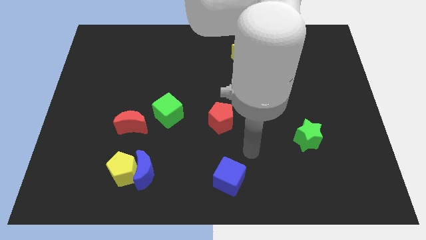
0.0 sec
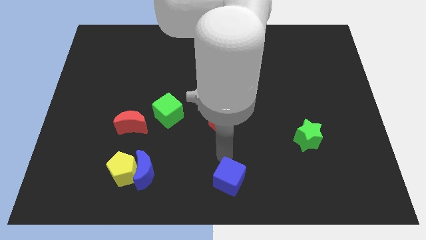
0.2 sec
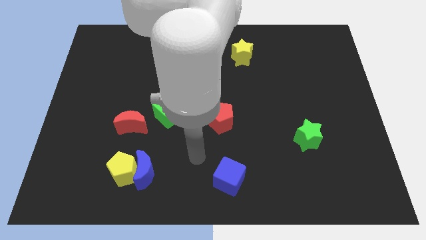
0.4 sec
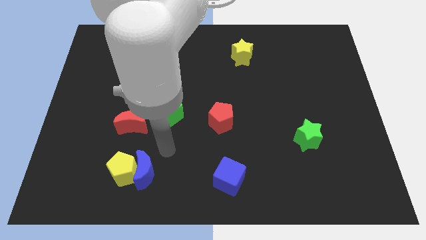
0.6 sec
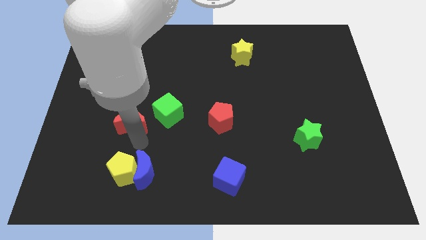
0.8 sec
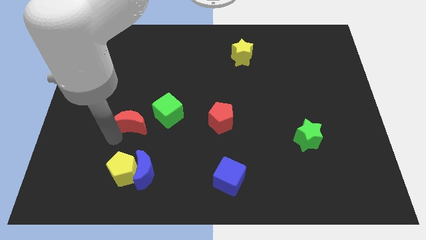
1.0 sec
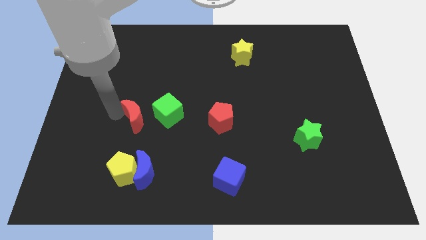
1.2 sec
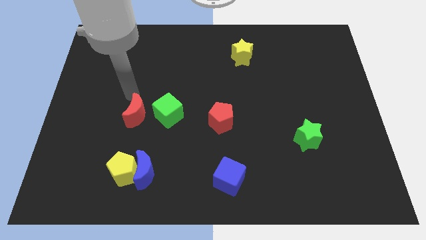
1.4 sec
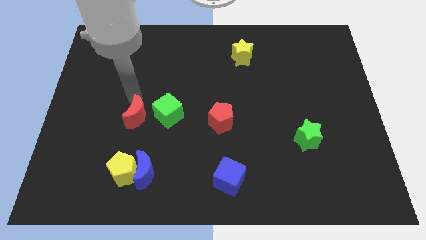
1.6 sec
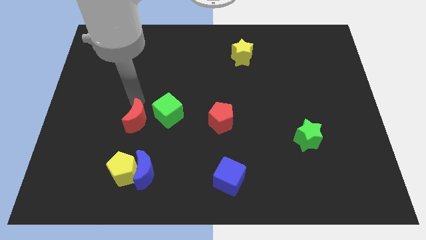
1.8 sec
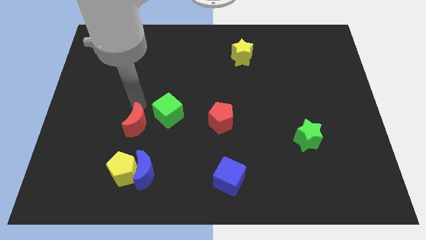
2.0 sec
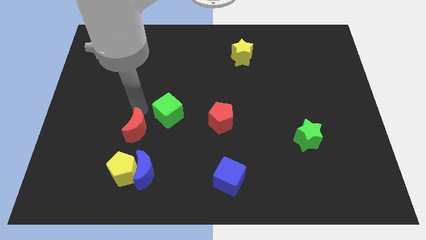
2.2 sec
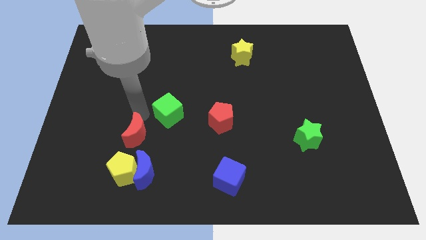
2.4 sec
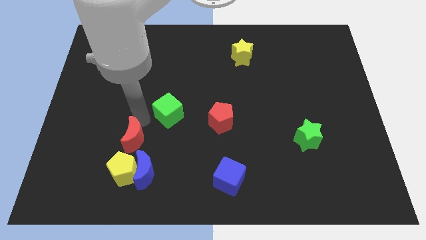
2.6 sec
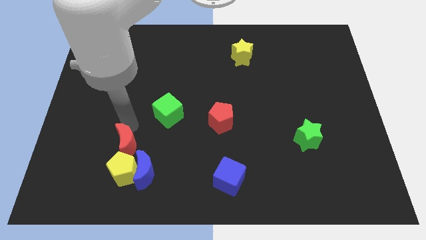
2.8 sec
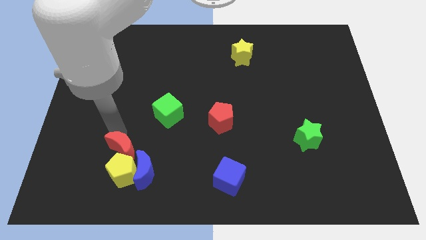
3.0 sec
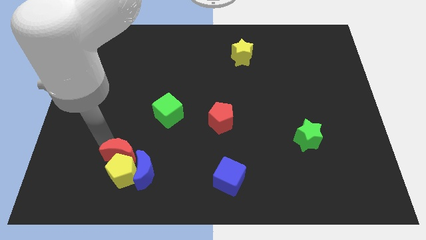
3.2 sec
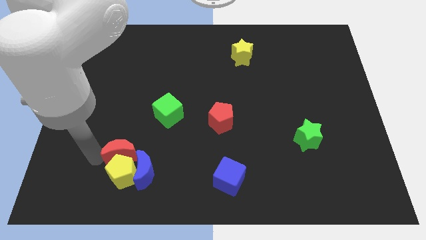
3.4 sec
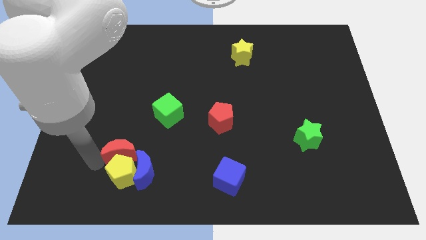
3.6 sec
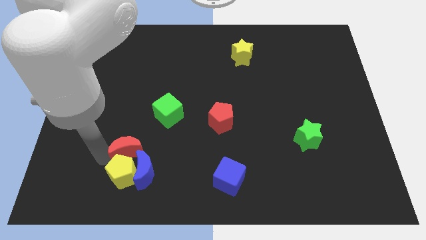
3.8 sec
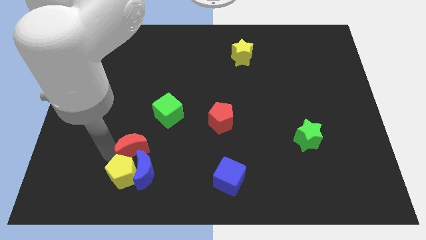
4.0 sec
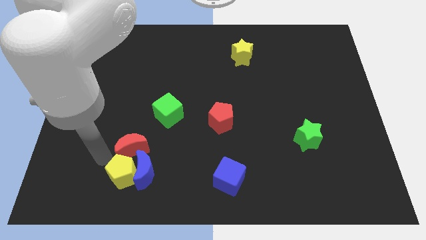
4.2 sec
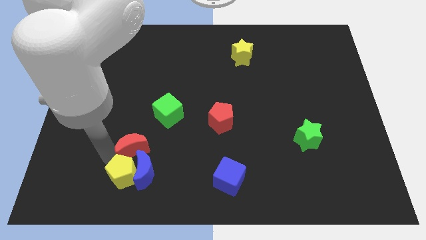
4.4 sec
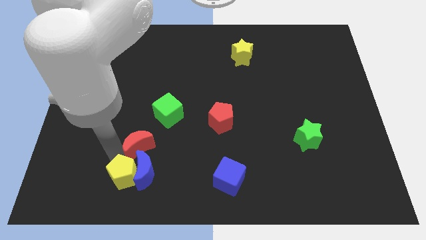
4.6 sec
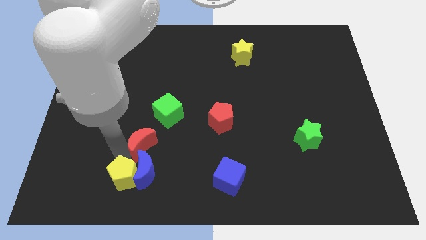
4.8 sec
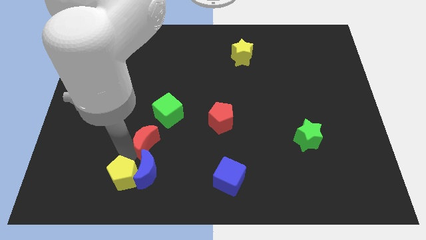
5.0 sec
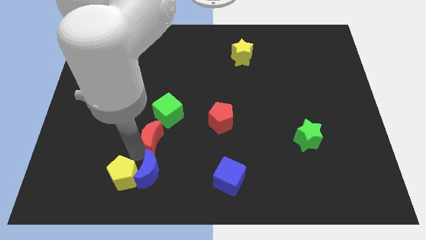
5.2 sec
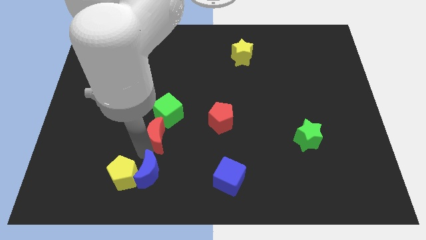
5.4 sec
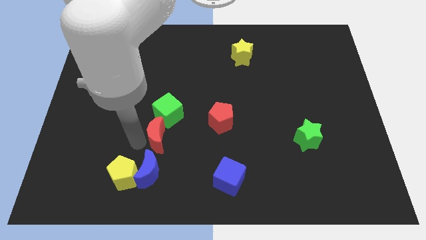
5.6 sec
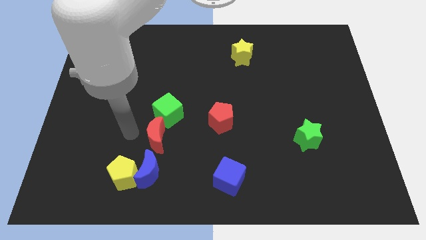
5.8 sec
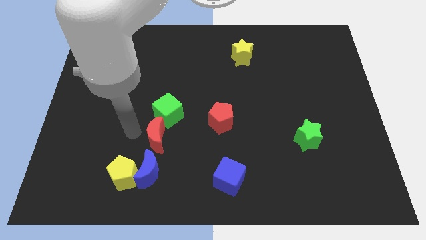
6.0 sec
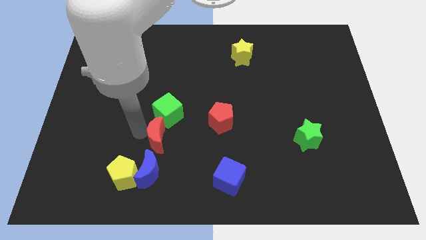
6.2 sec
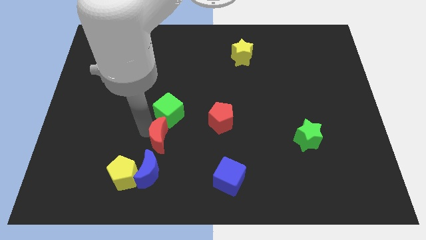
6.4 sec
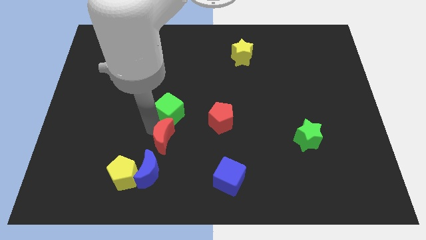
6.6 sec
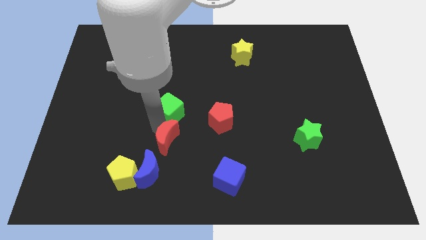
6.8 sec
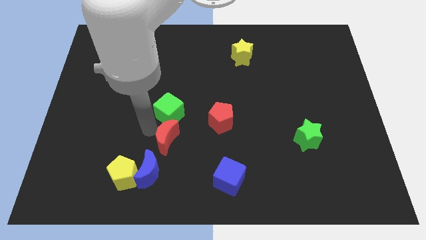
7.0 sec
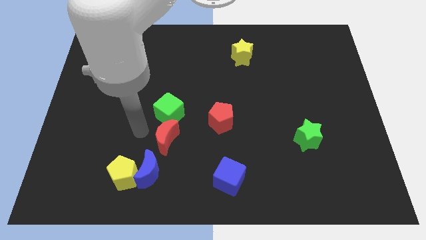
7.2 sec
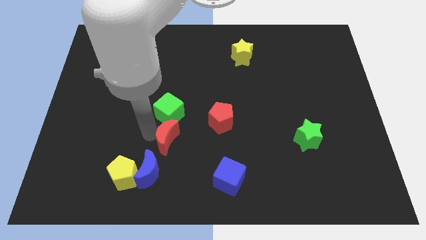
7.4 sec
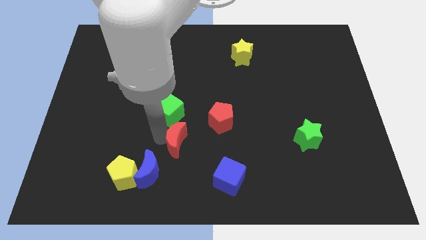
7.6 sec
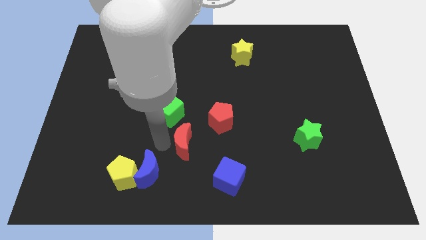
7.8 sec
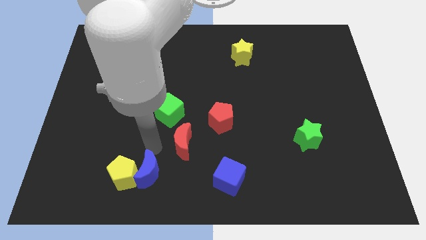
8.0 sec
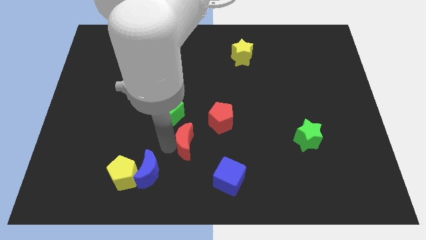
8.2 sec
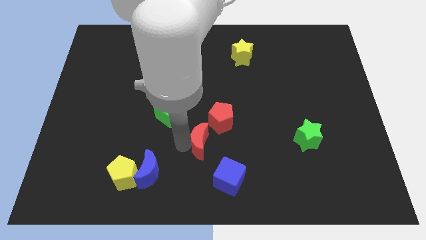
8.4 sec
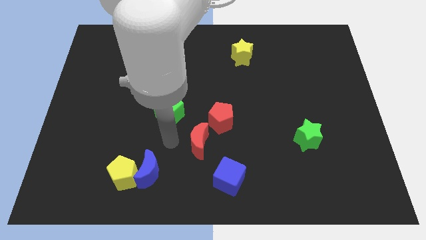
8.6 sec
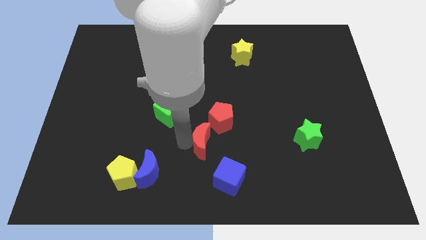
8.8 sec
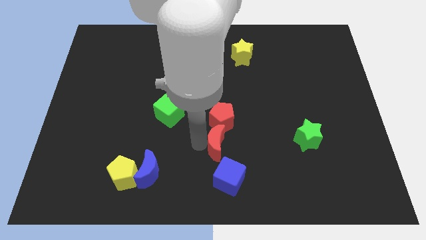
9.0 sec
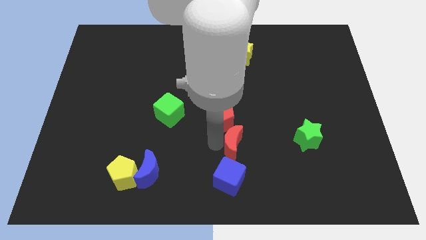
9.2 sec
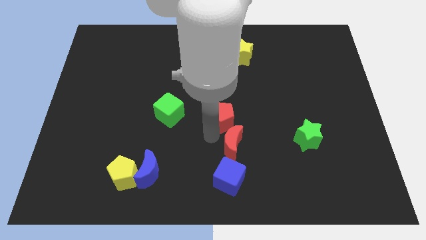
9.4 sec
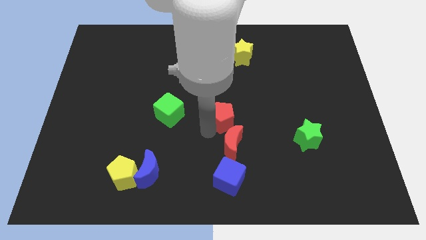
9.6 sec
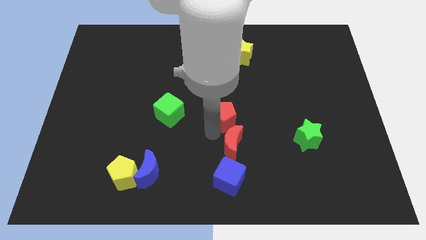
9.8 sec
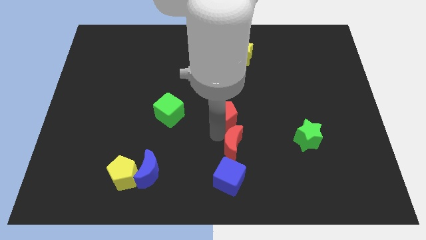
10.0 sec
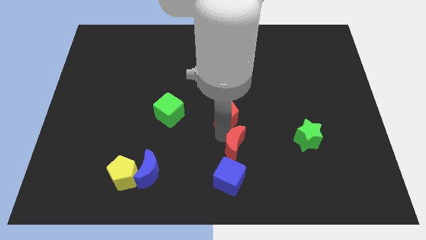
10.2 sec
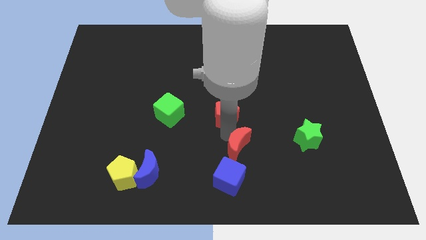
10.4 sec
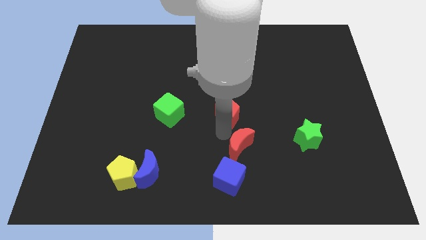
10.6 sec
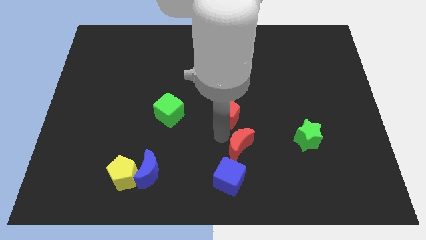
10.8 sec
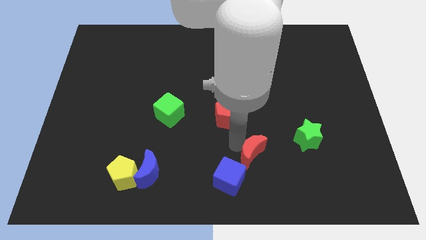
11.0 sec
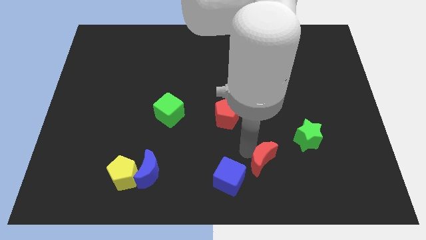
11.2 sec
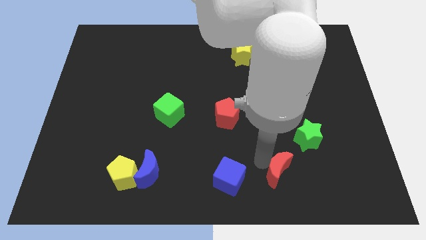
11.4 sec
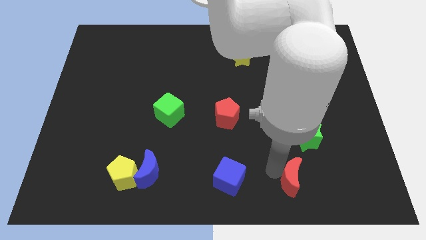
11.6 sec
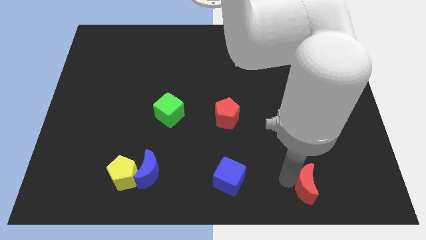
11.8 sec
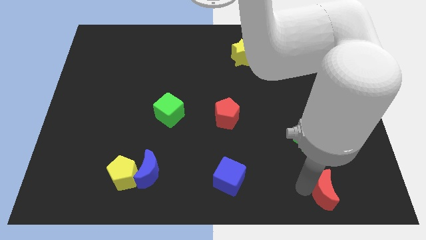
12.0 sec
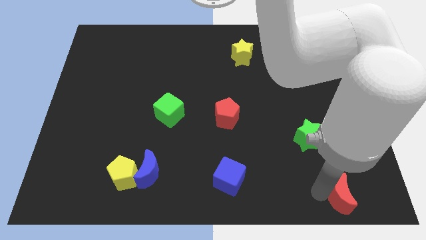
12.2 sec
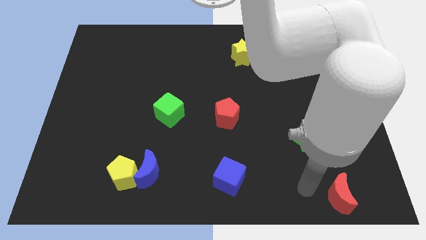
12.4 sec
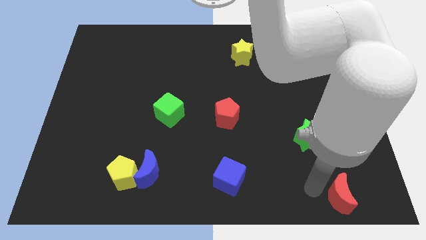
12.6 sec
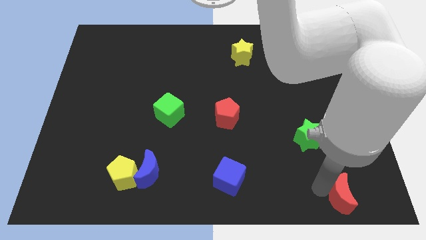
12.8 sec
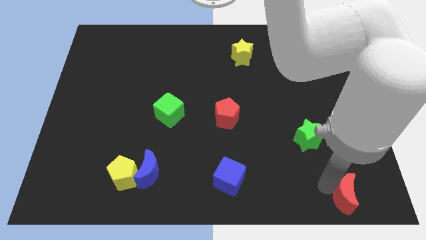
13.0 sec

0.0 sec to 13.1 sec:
push the red moon to the bottom right corner

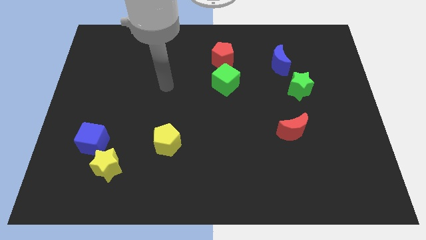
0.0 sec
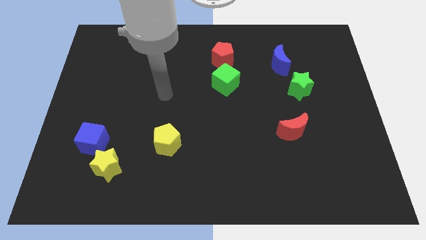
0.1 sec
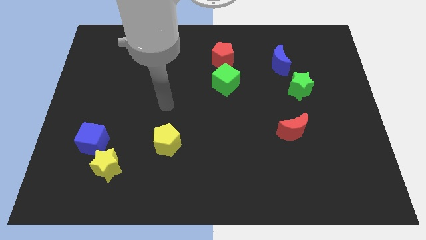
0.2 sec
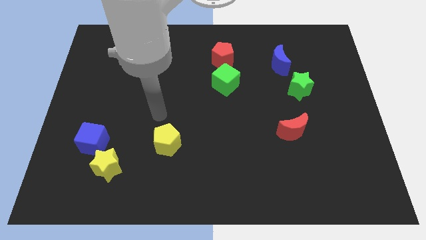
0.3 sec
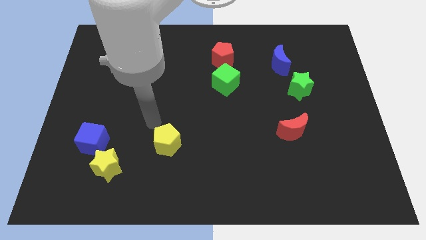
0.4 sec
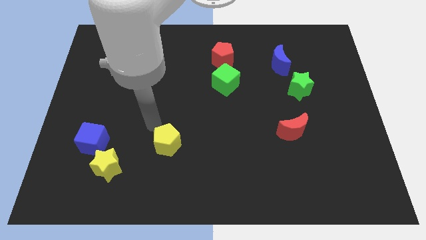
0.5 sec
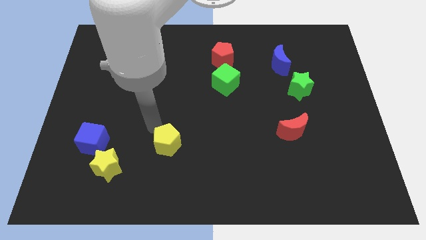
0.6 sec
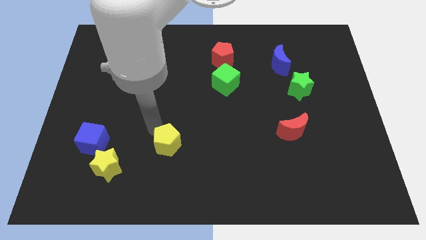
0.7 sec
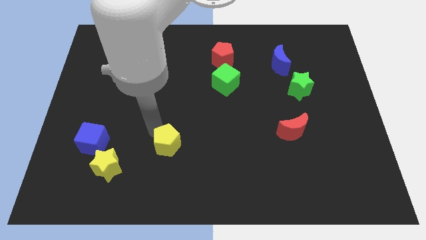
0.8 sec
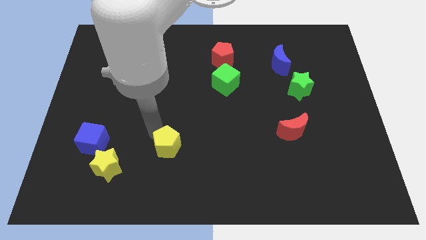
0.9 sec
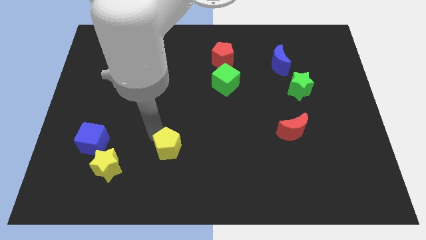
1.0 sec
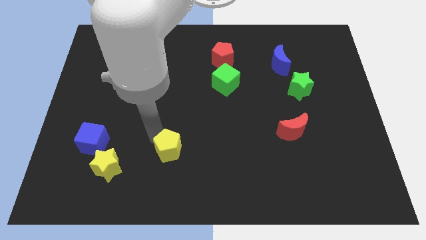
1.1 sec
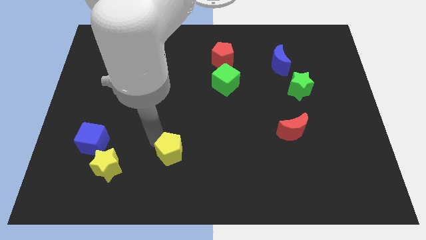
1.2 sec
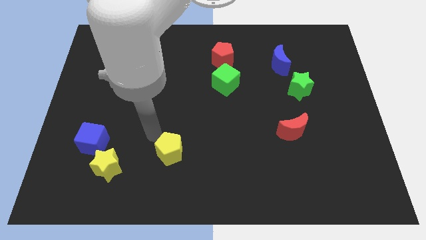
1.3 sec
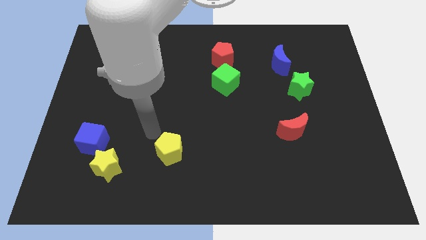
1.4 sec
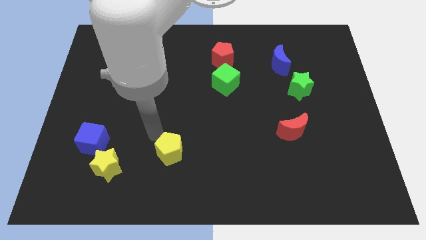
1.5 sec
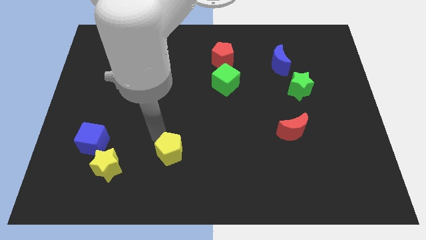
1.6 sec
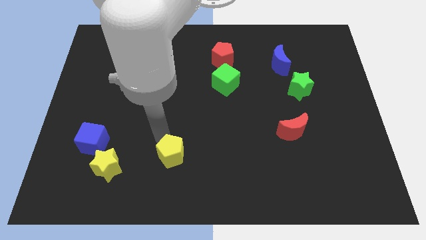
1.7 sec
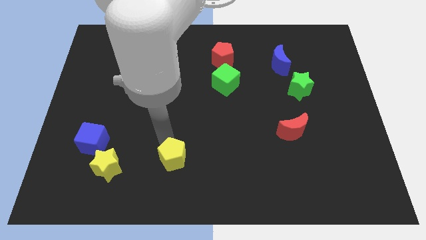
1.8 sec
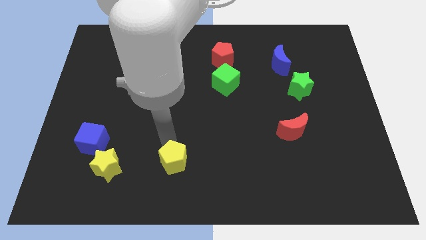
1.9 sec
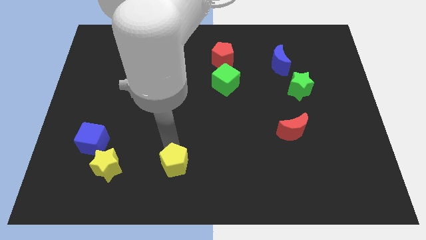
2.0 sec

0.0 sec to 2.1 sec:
slide the yellow pentagon to the bottom side
